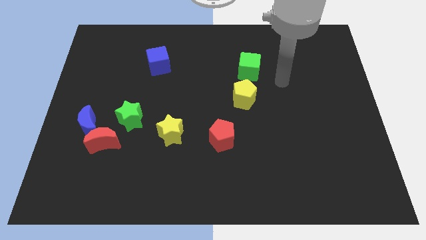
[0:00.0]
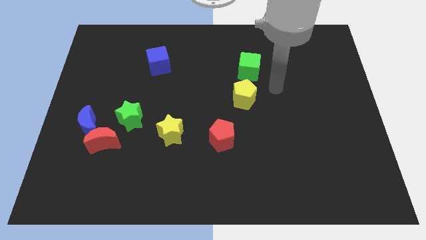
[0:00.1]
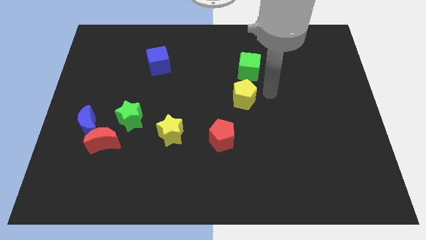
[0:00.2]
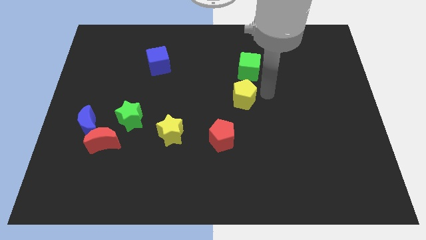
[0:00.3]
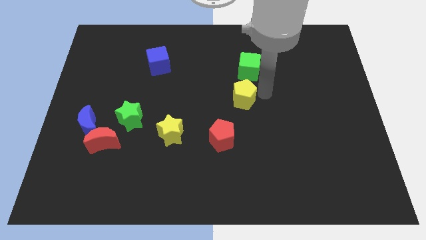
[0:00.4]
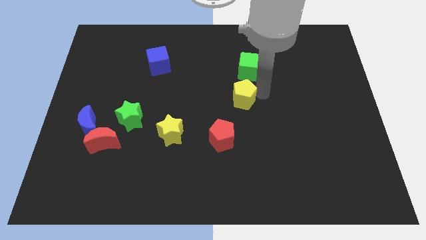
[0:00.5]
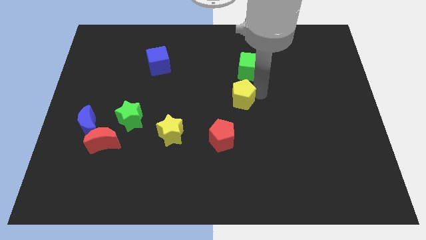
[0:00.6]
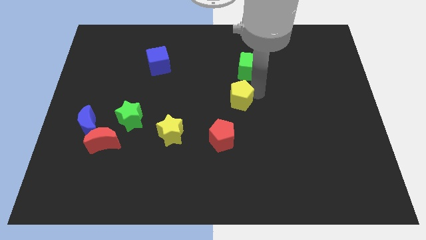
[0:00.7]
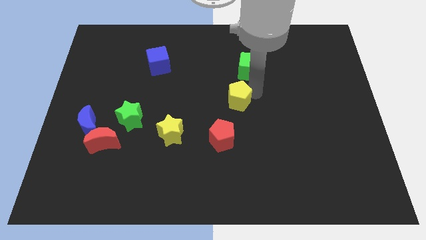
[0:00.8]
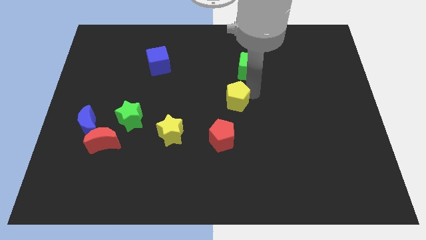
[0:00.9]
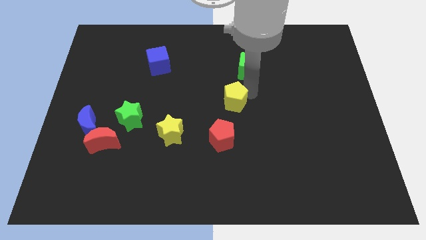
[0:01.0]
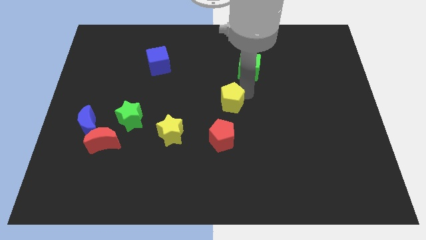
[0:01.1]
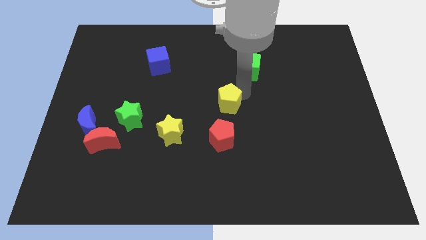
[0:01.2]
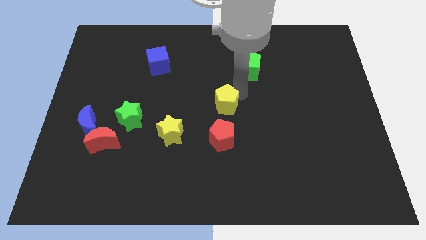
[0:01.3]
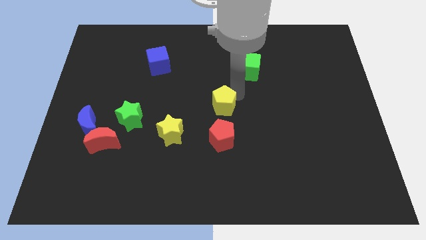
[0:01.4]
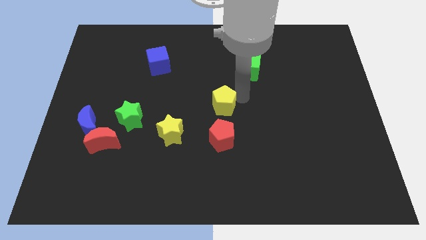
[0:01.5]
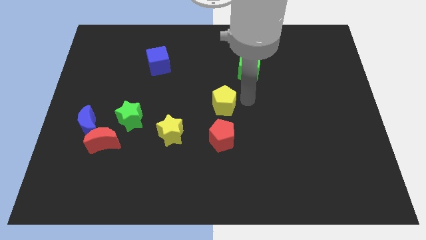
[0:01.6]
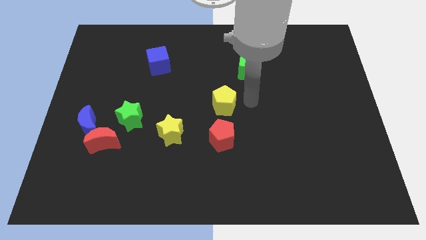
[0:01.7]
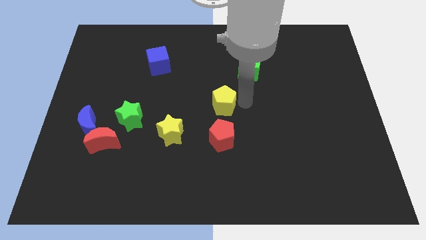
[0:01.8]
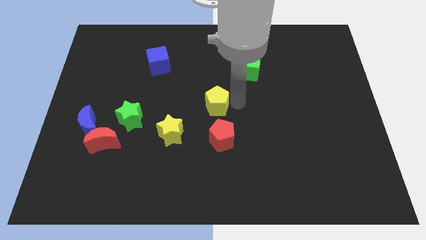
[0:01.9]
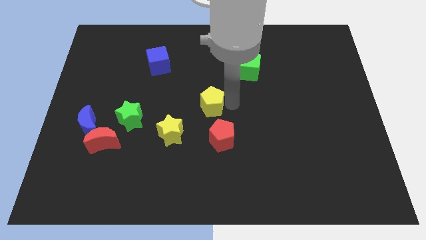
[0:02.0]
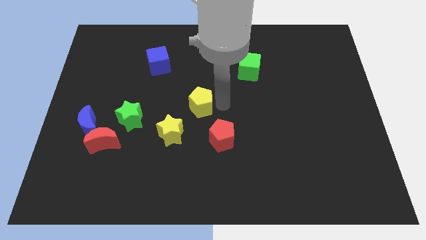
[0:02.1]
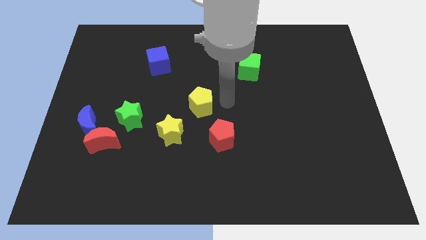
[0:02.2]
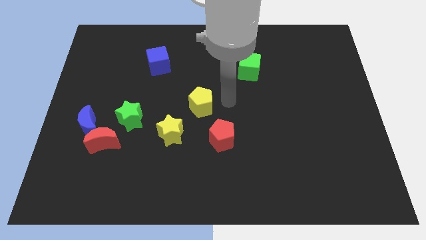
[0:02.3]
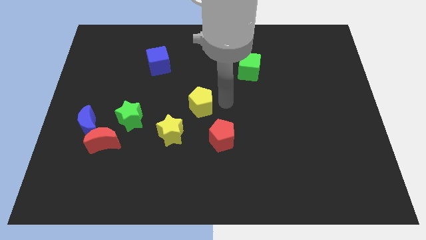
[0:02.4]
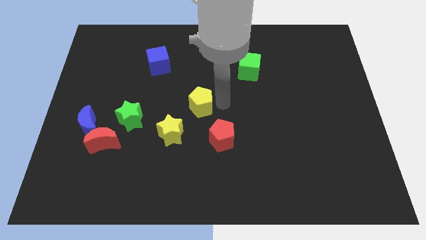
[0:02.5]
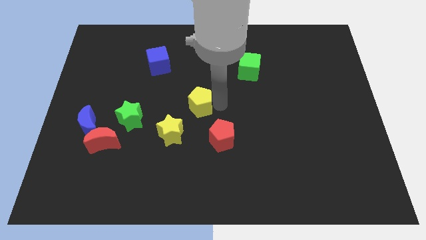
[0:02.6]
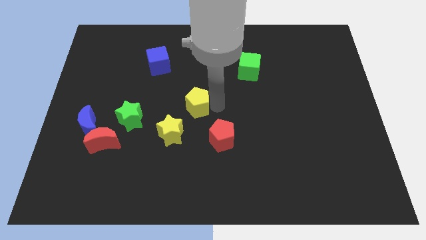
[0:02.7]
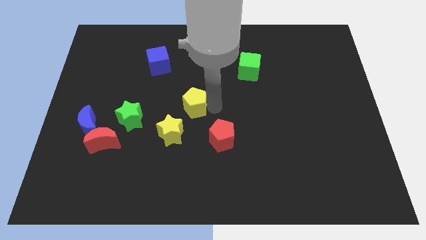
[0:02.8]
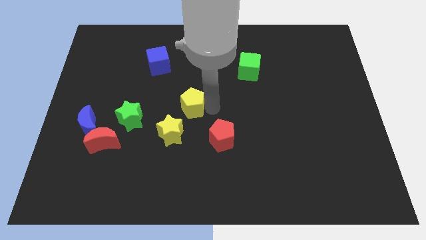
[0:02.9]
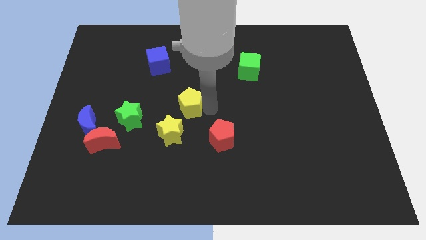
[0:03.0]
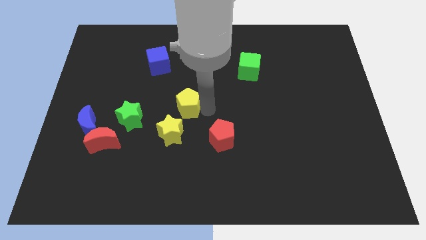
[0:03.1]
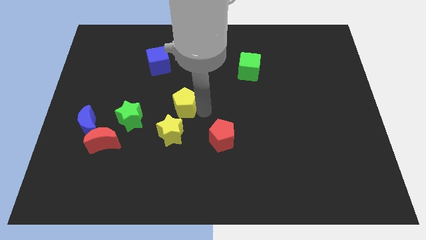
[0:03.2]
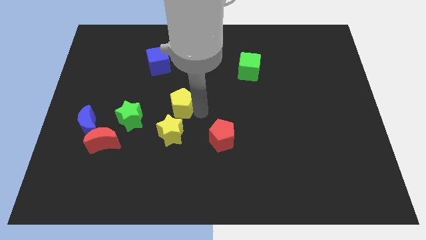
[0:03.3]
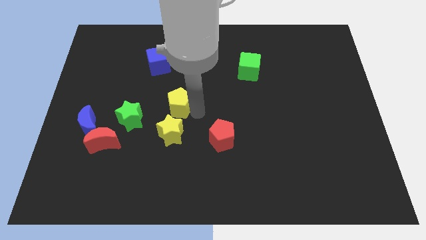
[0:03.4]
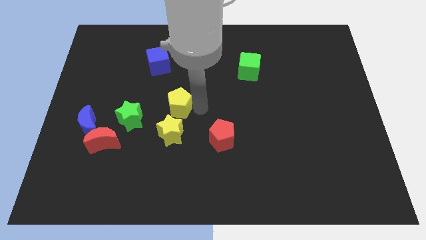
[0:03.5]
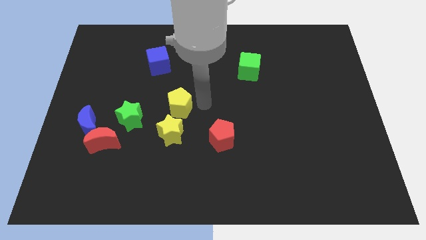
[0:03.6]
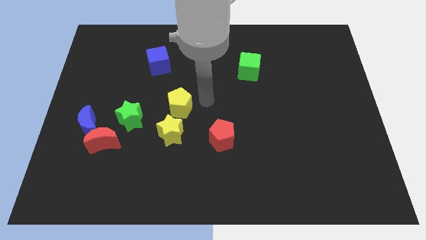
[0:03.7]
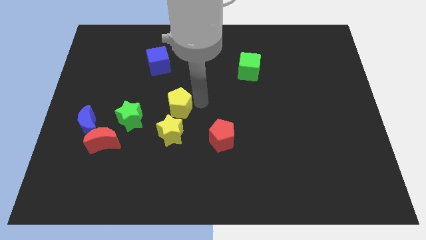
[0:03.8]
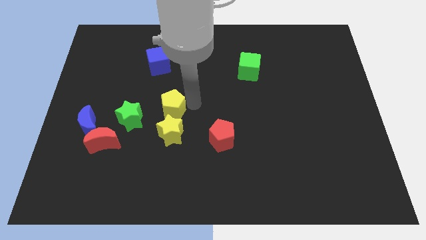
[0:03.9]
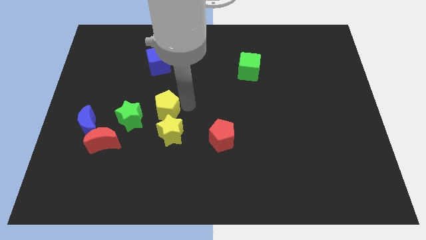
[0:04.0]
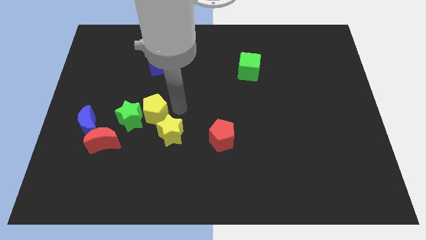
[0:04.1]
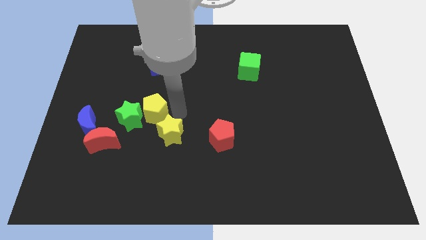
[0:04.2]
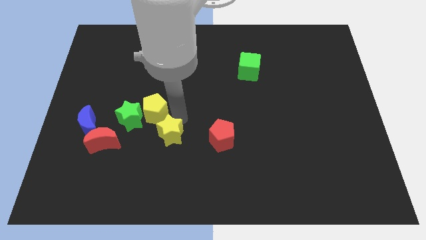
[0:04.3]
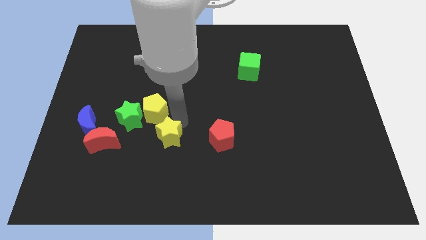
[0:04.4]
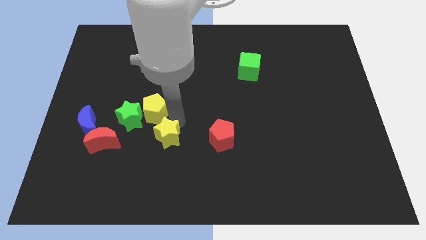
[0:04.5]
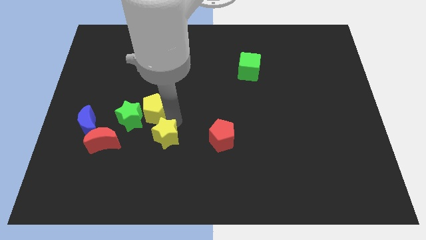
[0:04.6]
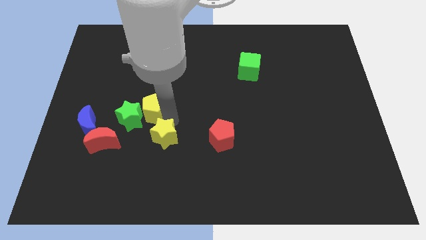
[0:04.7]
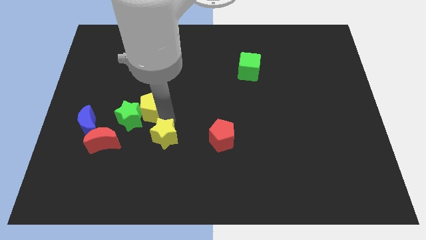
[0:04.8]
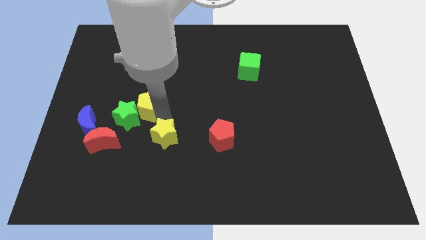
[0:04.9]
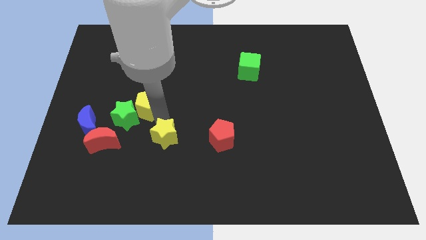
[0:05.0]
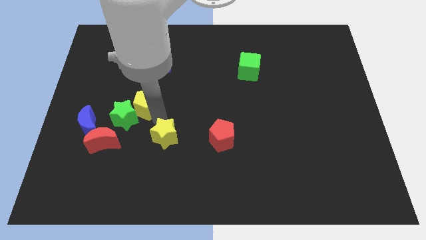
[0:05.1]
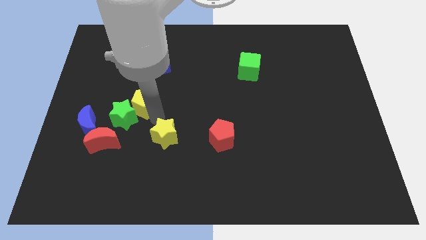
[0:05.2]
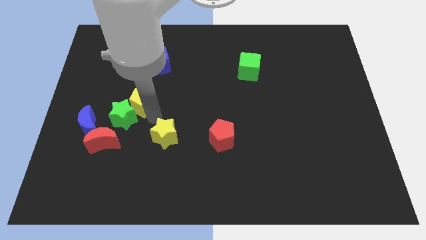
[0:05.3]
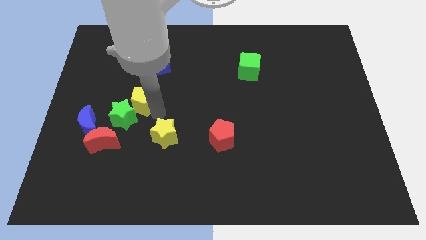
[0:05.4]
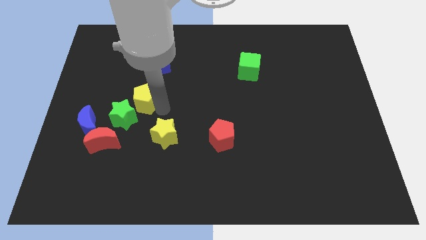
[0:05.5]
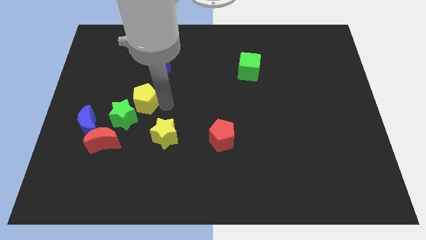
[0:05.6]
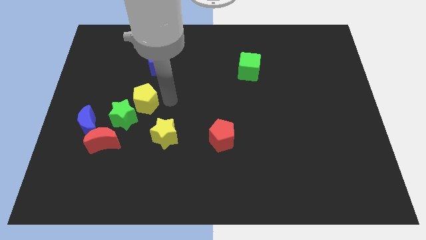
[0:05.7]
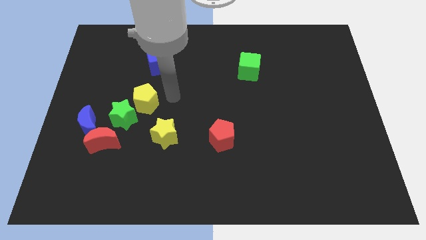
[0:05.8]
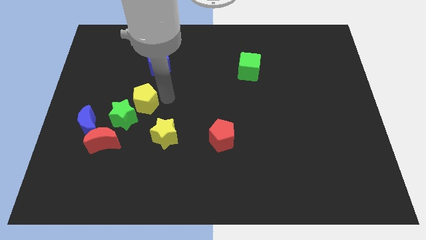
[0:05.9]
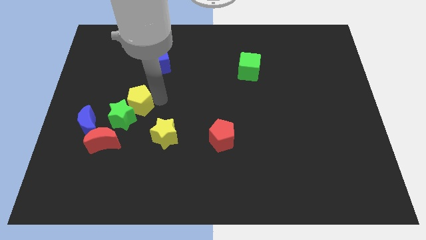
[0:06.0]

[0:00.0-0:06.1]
push the yellow pentagon diagonally up and to the right of the blue moon

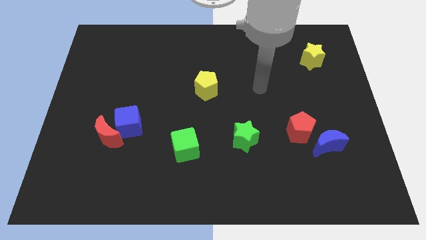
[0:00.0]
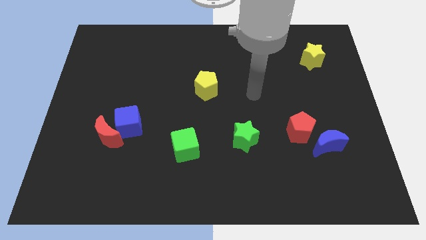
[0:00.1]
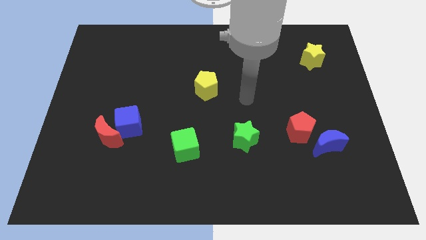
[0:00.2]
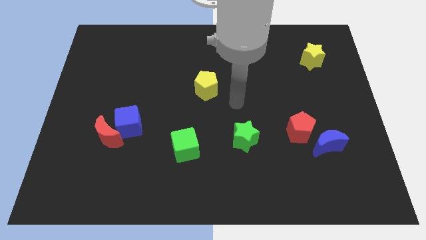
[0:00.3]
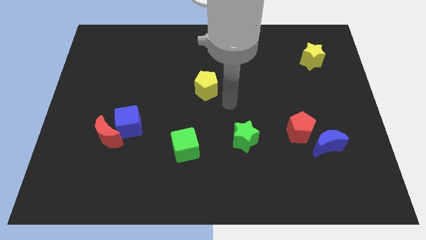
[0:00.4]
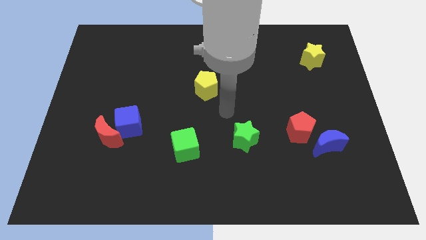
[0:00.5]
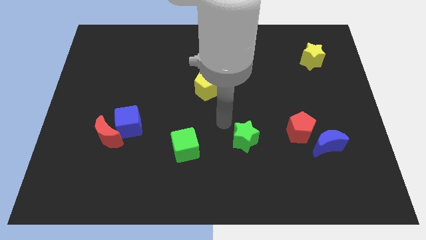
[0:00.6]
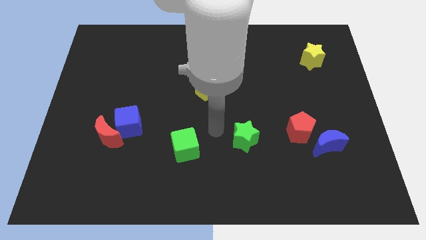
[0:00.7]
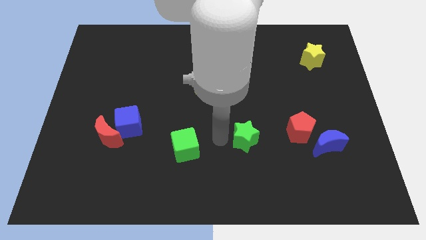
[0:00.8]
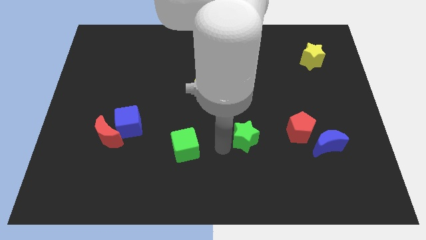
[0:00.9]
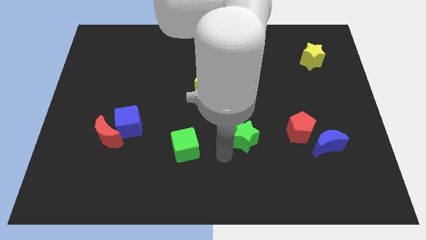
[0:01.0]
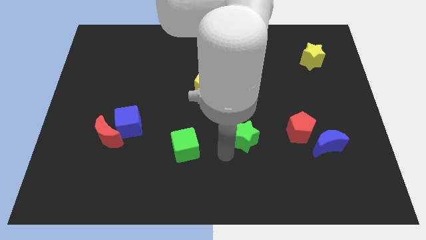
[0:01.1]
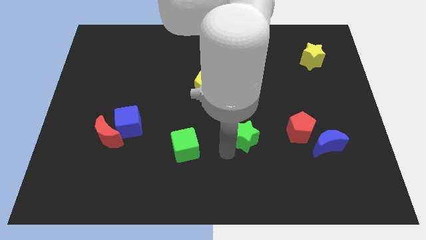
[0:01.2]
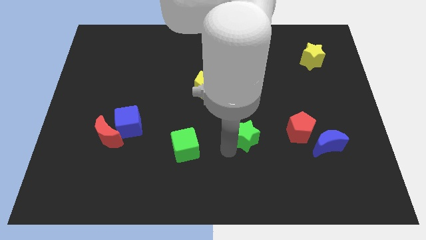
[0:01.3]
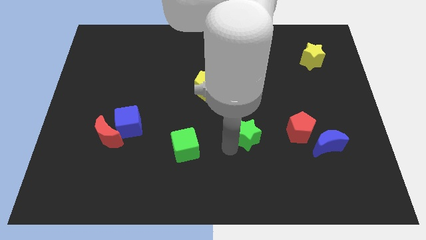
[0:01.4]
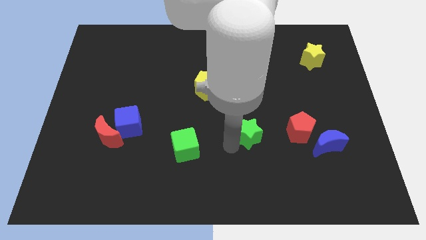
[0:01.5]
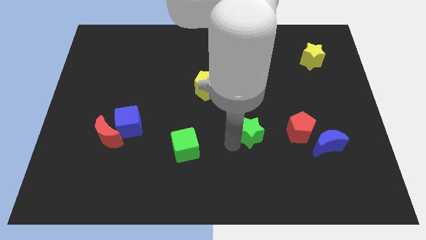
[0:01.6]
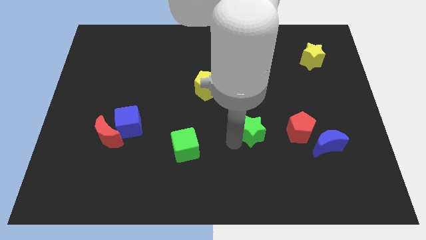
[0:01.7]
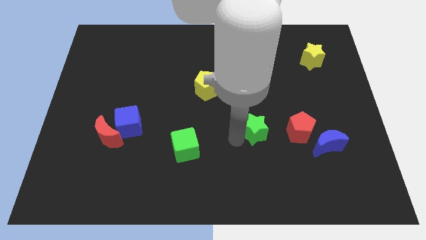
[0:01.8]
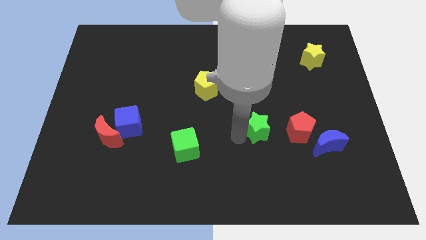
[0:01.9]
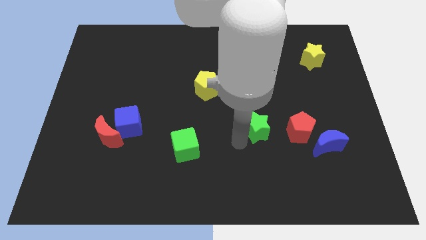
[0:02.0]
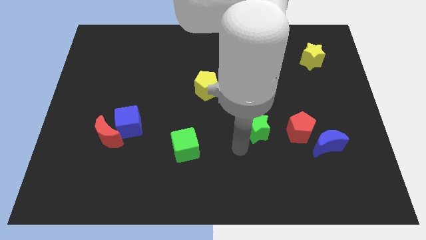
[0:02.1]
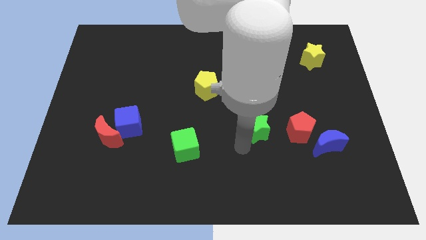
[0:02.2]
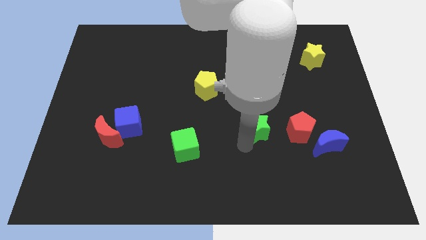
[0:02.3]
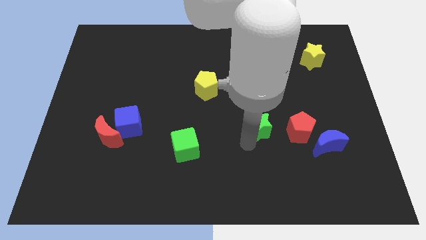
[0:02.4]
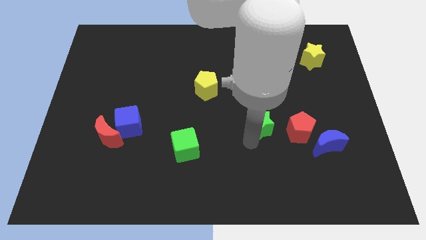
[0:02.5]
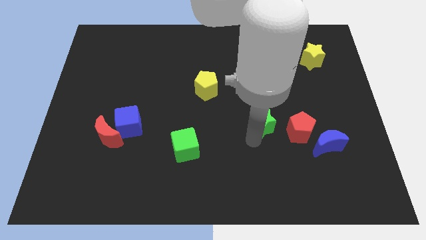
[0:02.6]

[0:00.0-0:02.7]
put the green star diagonally up and to the left of the red pentagon
